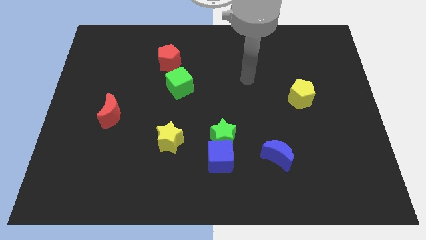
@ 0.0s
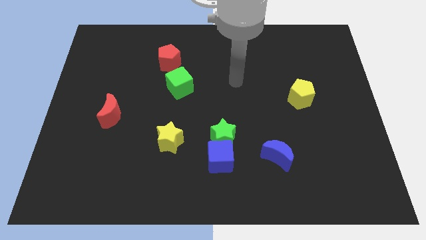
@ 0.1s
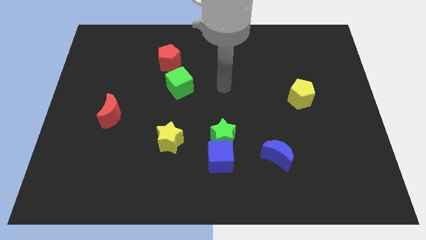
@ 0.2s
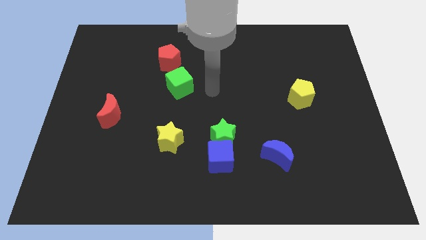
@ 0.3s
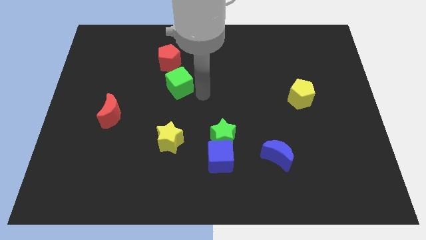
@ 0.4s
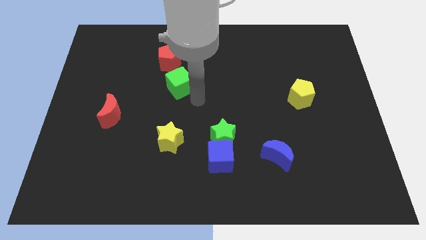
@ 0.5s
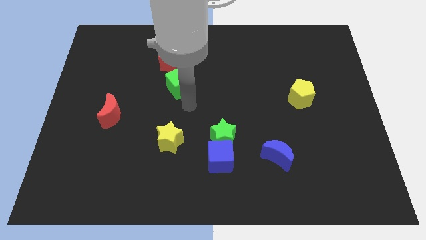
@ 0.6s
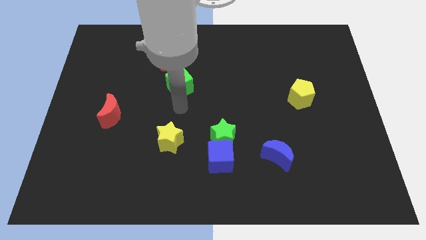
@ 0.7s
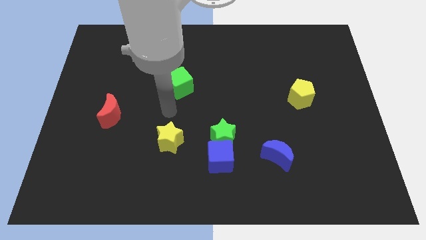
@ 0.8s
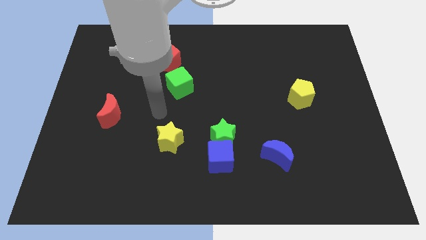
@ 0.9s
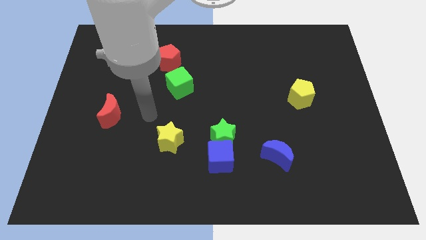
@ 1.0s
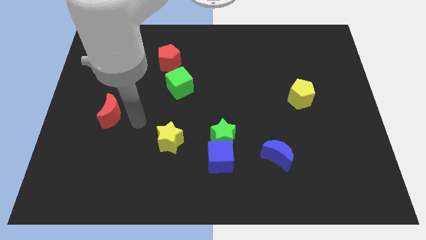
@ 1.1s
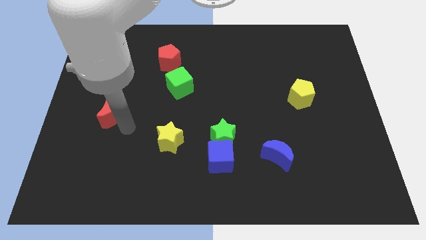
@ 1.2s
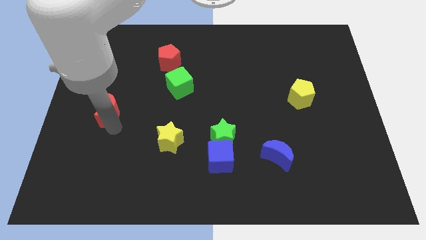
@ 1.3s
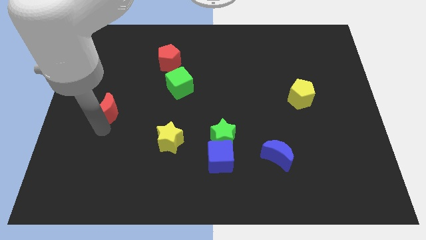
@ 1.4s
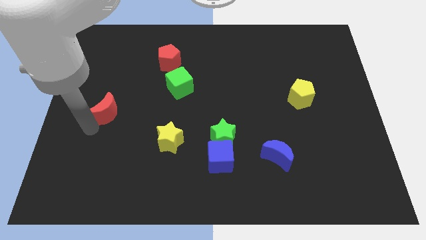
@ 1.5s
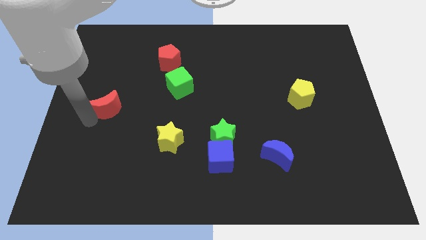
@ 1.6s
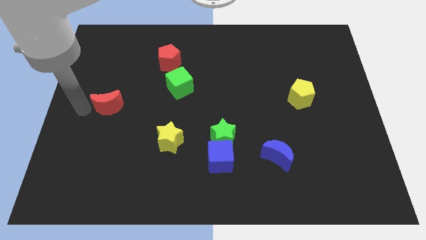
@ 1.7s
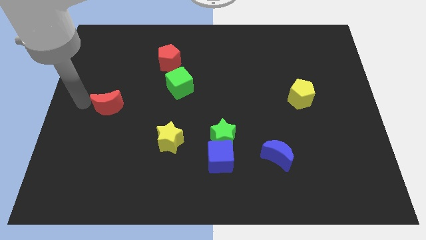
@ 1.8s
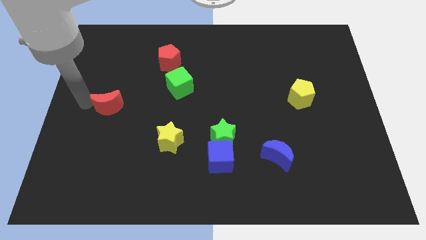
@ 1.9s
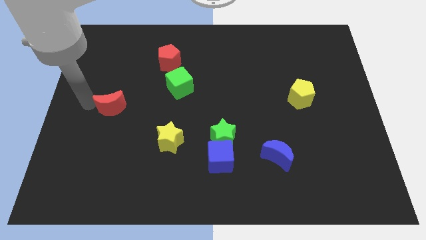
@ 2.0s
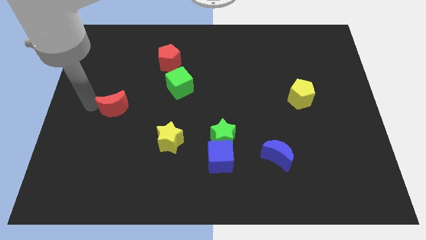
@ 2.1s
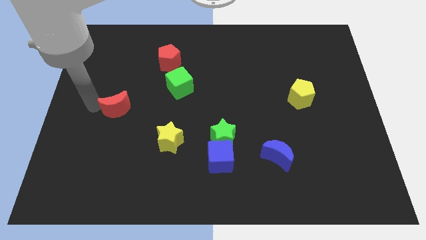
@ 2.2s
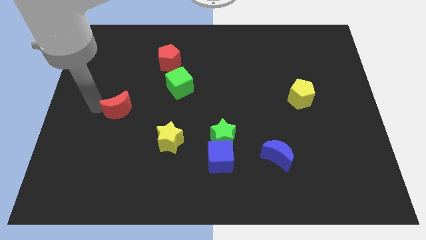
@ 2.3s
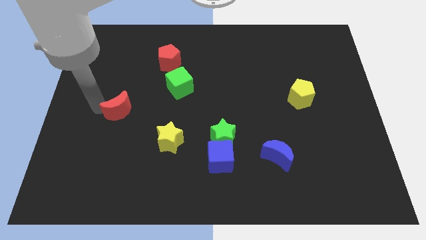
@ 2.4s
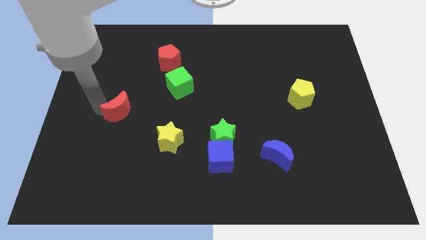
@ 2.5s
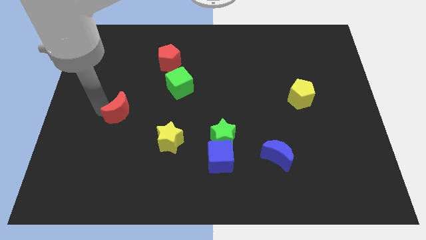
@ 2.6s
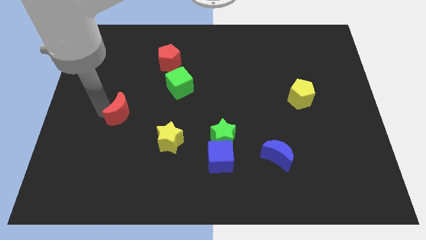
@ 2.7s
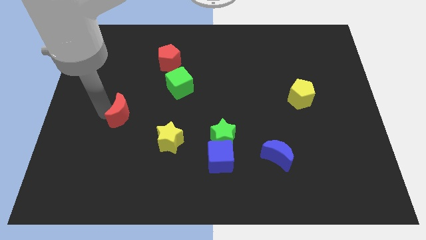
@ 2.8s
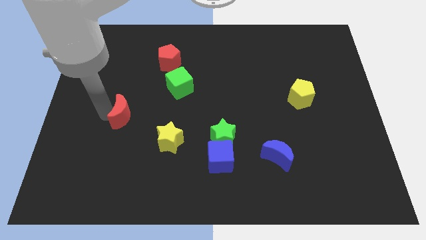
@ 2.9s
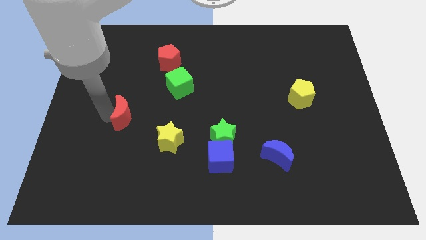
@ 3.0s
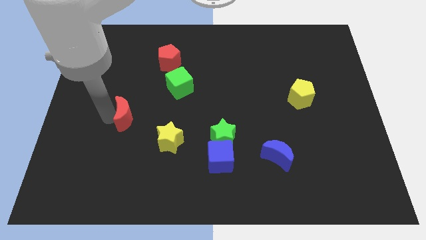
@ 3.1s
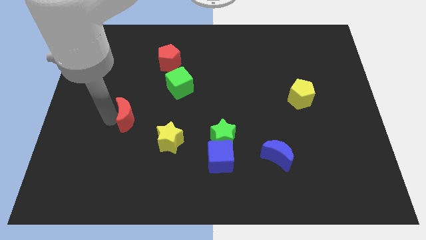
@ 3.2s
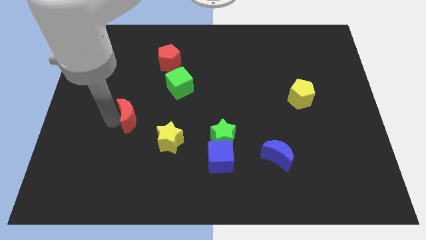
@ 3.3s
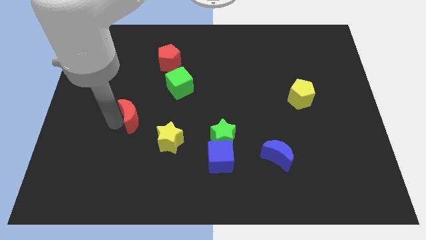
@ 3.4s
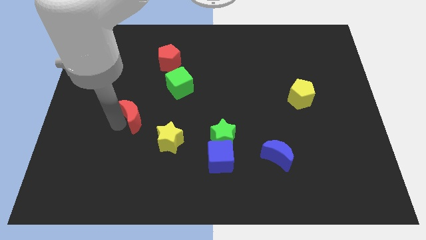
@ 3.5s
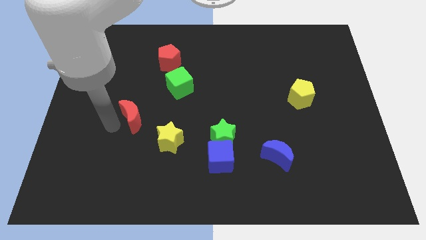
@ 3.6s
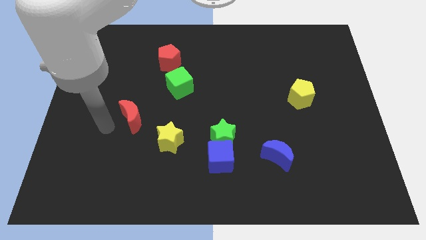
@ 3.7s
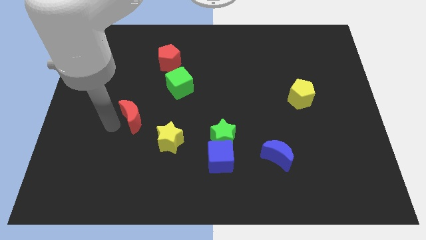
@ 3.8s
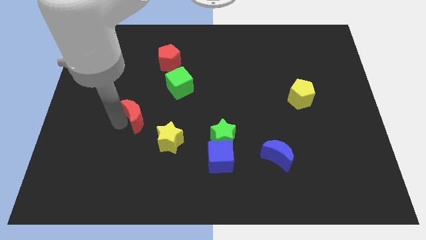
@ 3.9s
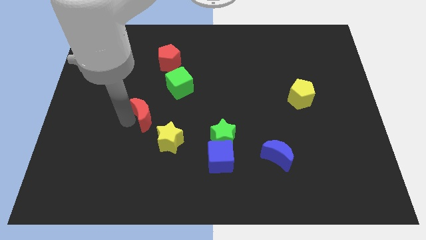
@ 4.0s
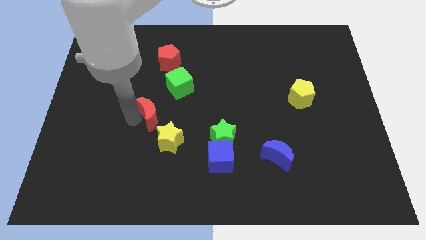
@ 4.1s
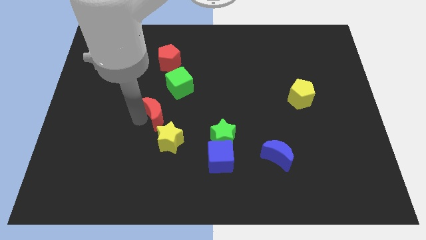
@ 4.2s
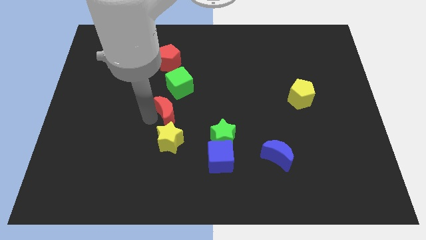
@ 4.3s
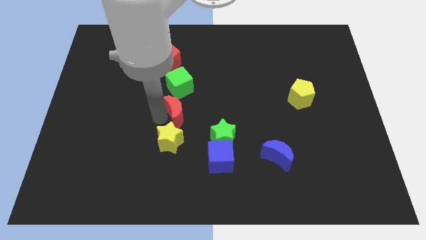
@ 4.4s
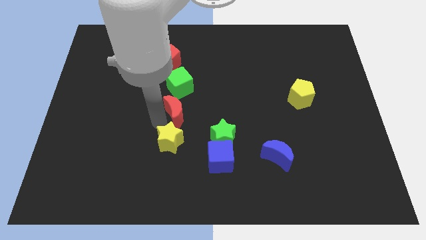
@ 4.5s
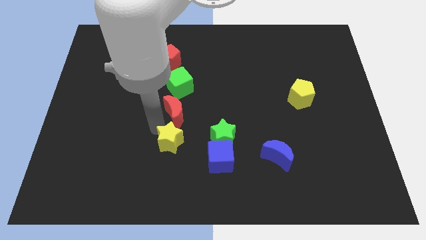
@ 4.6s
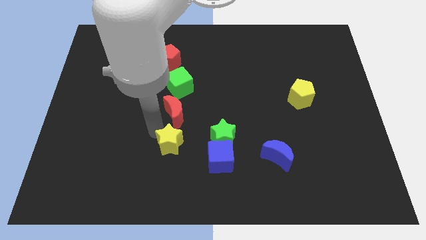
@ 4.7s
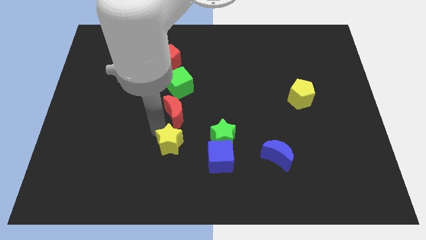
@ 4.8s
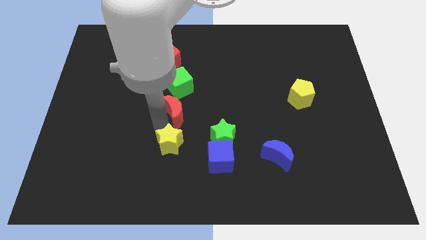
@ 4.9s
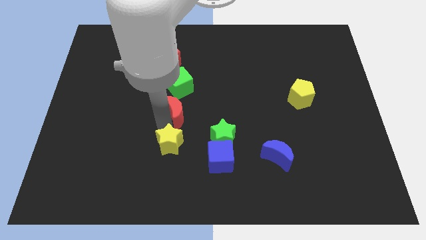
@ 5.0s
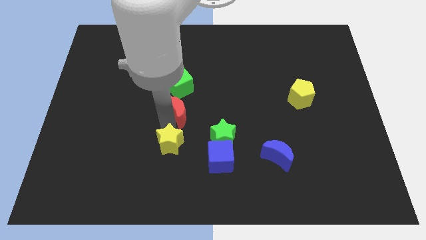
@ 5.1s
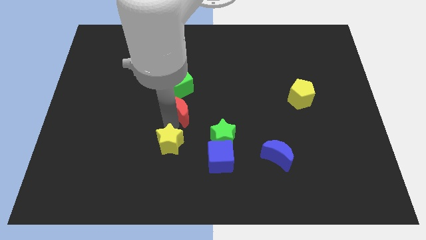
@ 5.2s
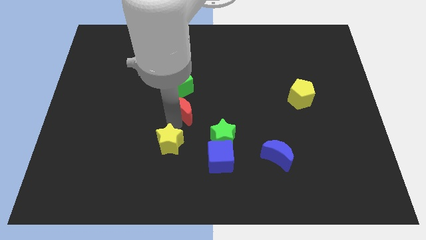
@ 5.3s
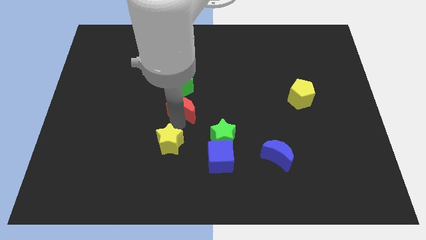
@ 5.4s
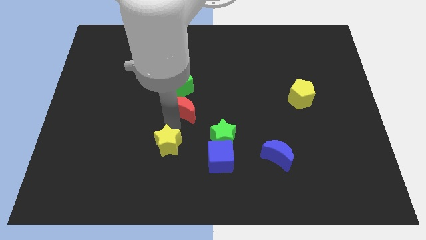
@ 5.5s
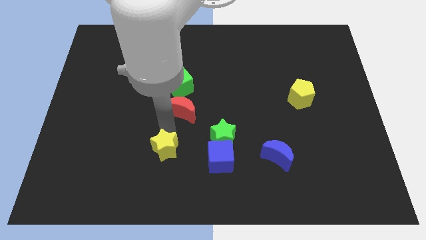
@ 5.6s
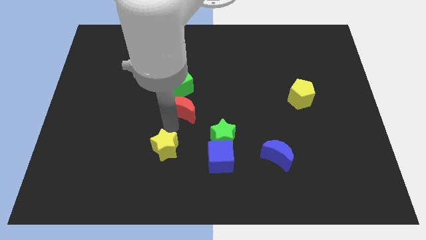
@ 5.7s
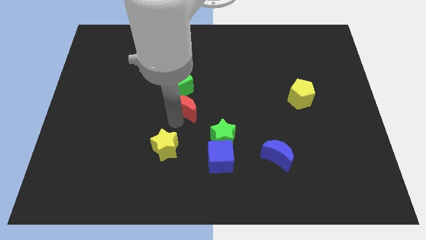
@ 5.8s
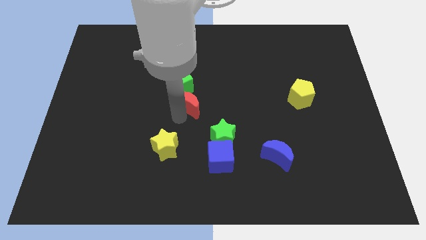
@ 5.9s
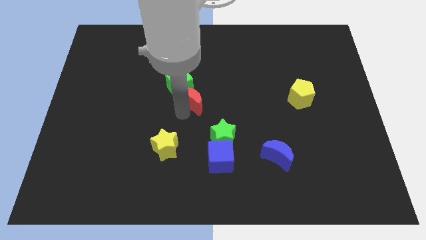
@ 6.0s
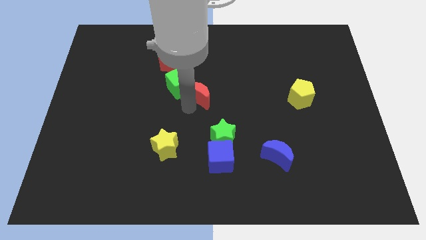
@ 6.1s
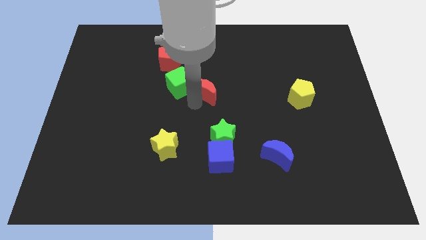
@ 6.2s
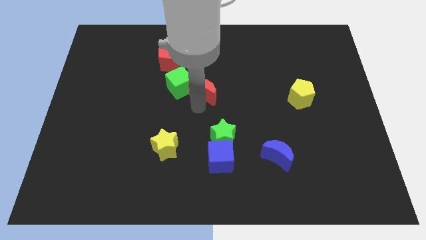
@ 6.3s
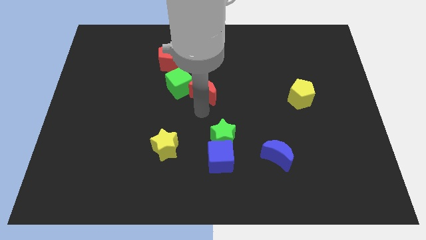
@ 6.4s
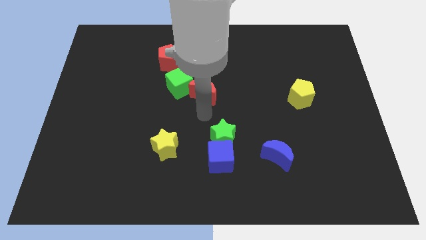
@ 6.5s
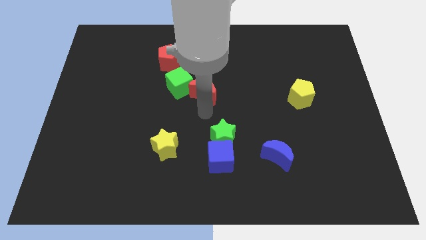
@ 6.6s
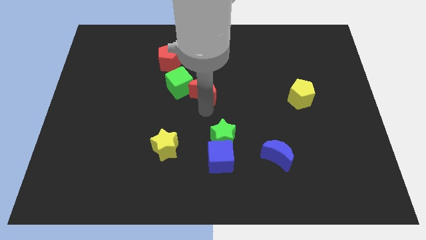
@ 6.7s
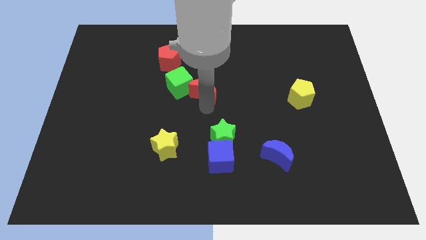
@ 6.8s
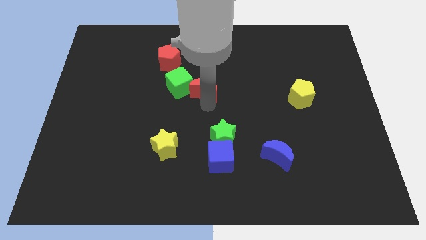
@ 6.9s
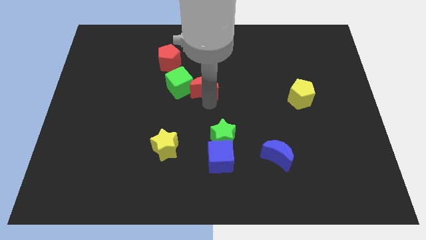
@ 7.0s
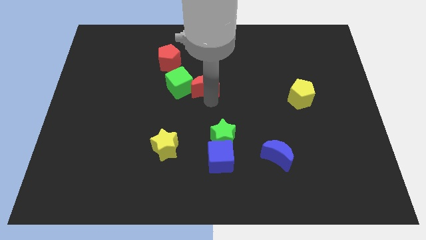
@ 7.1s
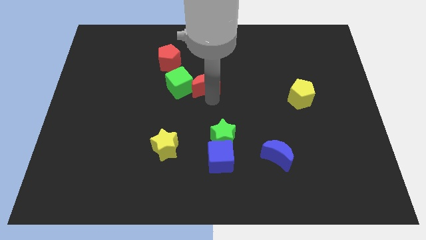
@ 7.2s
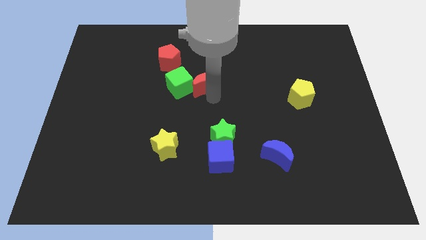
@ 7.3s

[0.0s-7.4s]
put the red moon to the bottom right of the red pentagon
